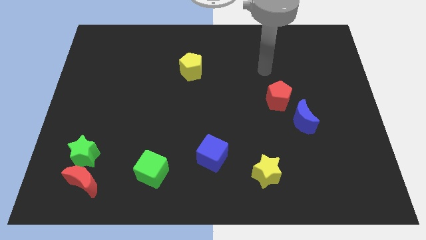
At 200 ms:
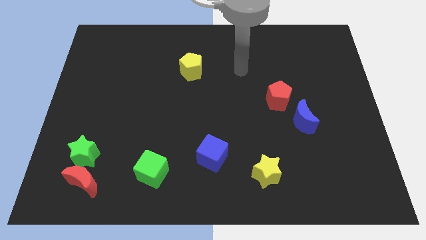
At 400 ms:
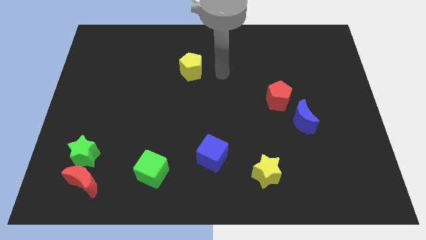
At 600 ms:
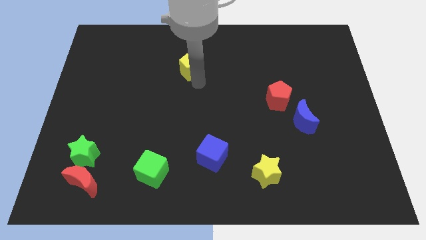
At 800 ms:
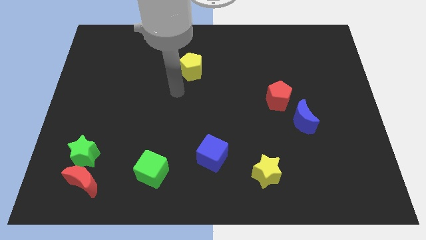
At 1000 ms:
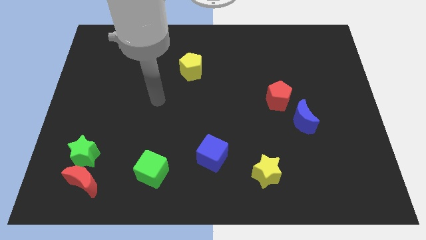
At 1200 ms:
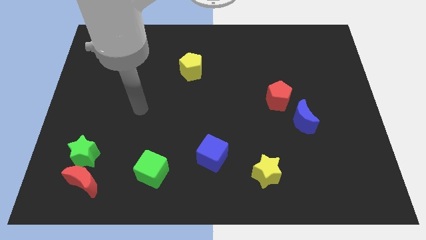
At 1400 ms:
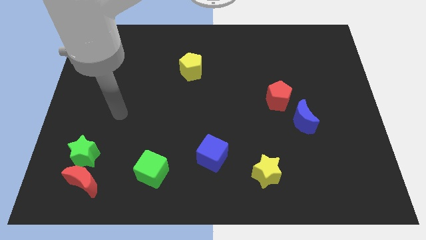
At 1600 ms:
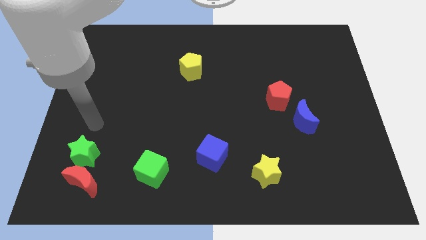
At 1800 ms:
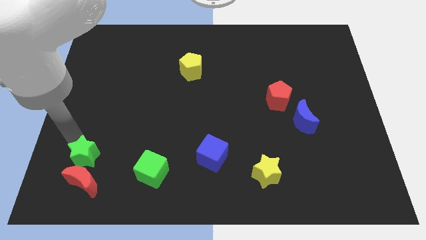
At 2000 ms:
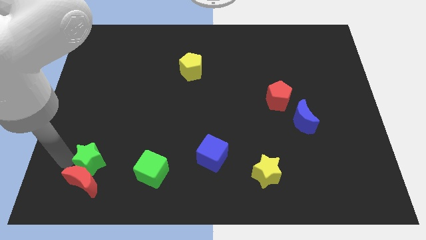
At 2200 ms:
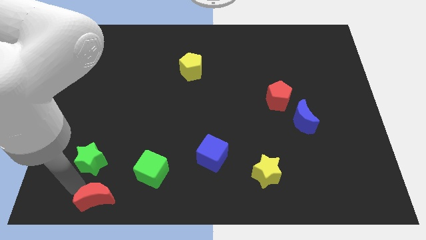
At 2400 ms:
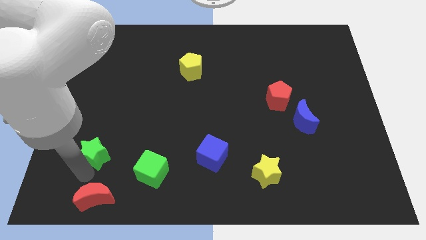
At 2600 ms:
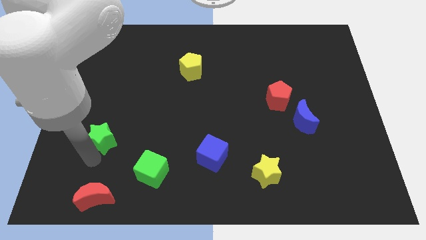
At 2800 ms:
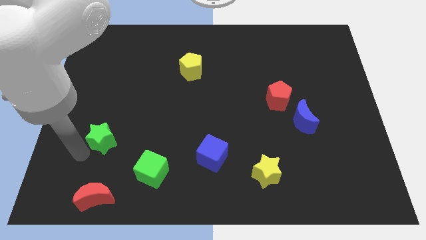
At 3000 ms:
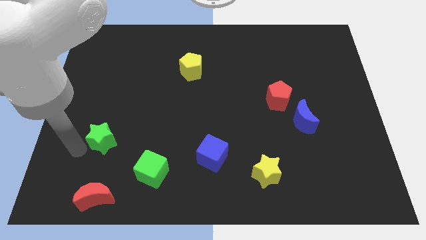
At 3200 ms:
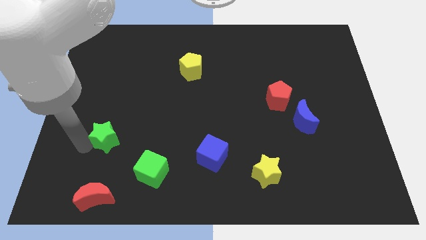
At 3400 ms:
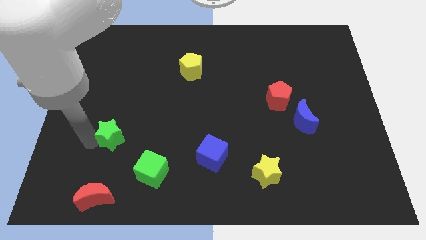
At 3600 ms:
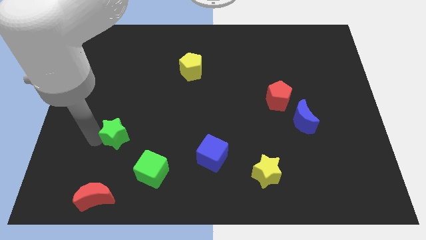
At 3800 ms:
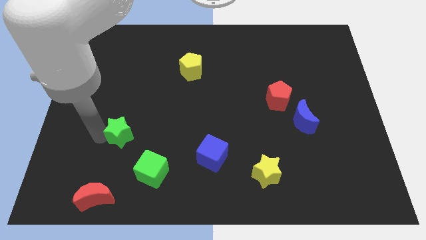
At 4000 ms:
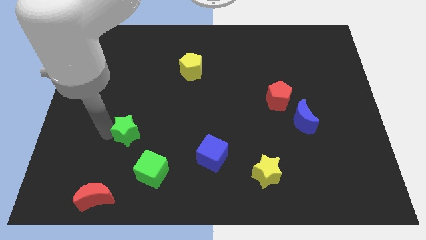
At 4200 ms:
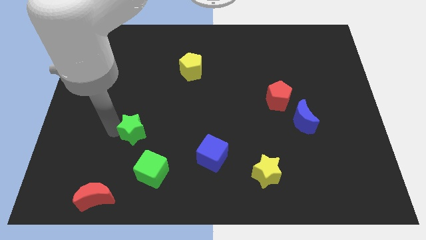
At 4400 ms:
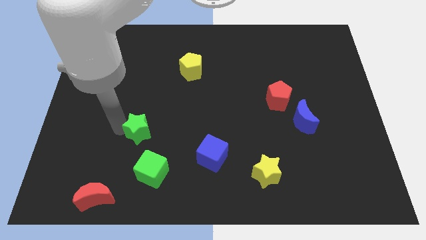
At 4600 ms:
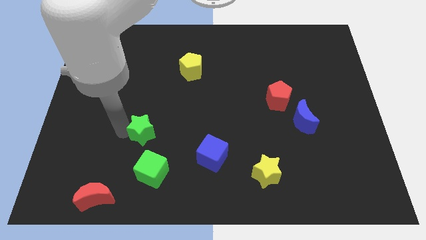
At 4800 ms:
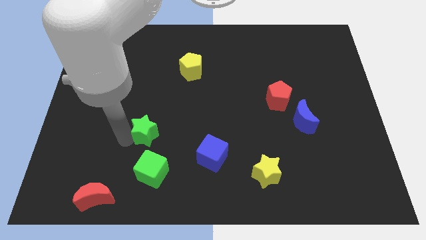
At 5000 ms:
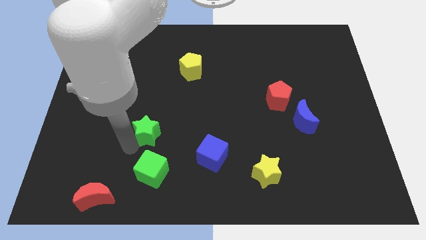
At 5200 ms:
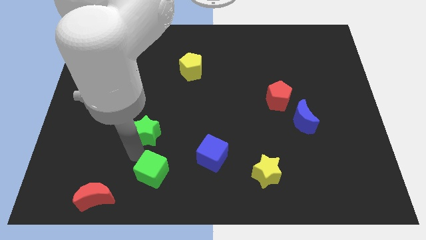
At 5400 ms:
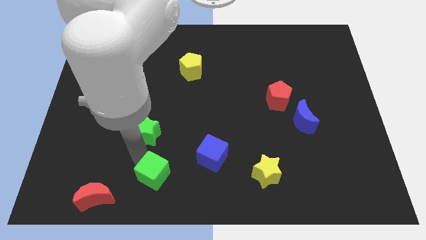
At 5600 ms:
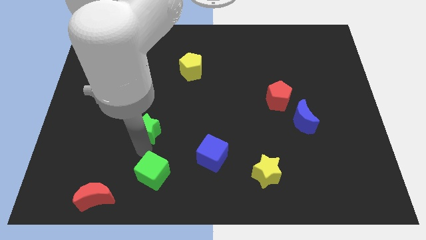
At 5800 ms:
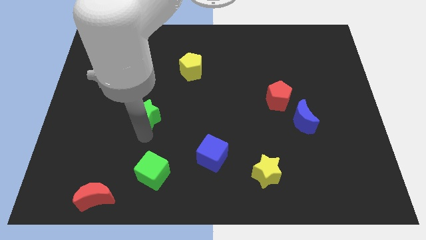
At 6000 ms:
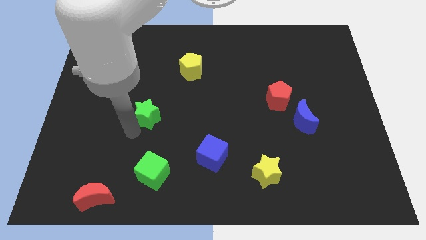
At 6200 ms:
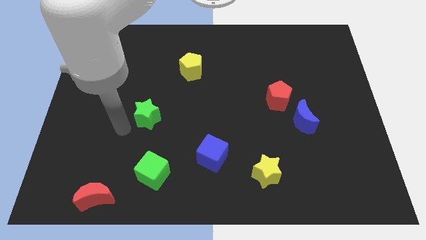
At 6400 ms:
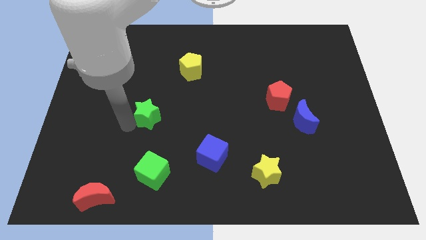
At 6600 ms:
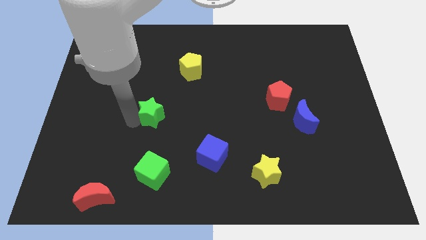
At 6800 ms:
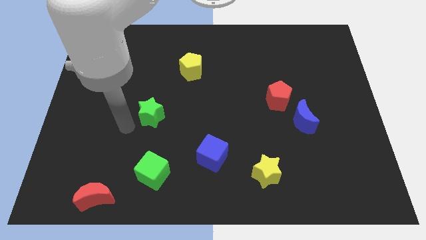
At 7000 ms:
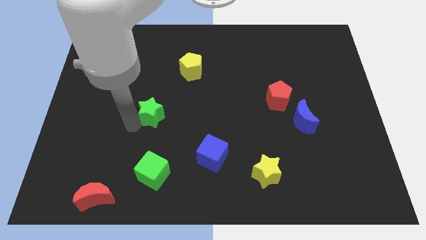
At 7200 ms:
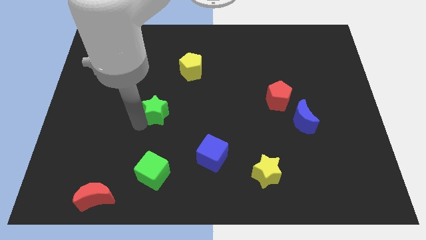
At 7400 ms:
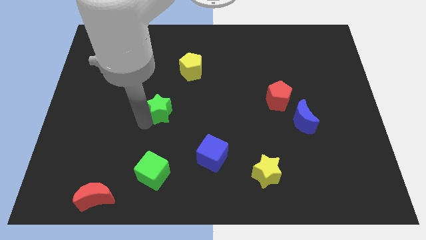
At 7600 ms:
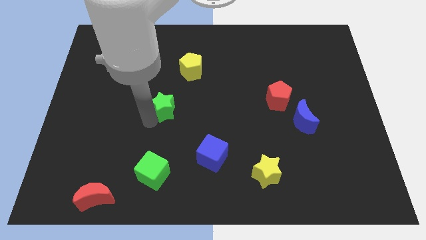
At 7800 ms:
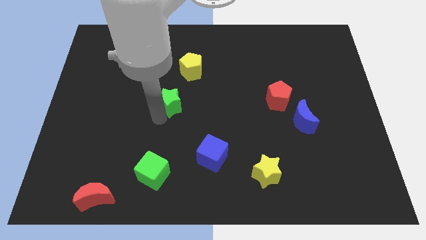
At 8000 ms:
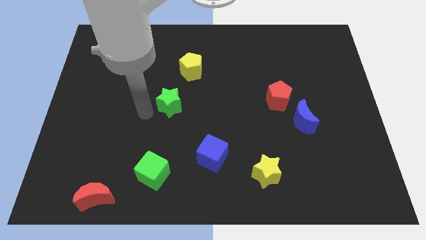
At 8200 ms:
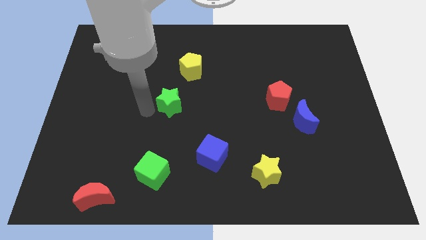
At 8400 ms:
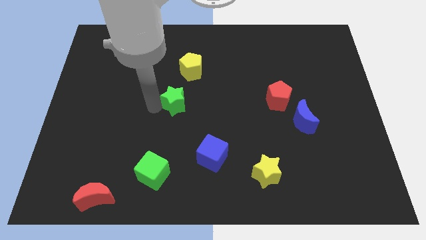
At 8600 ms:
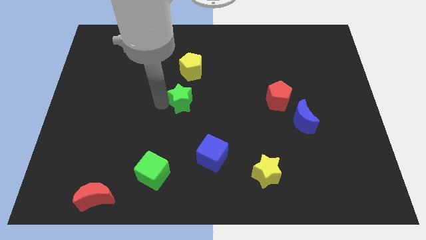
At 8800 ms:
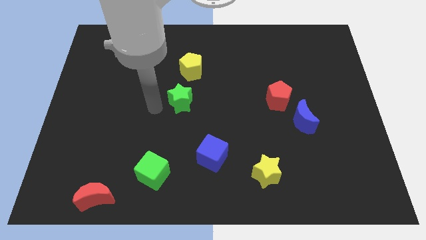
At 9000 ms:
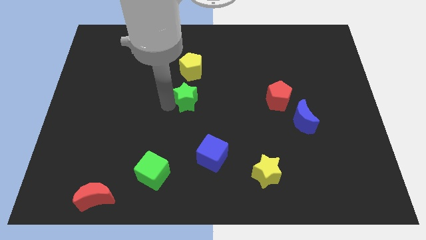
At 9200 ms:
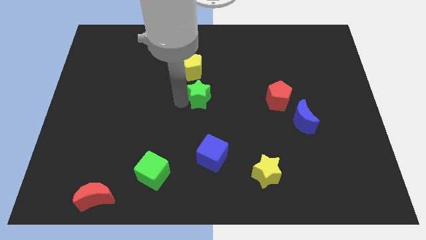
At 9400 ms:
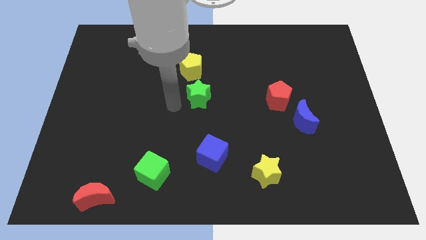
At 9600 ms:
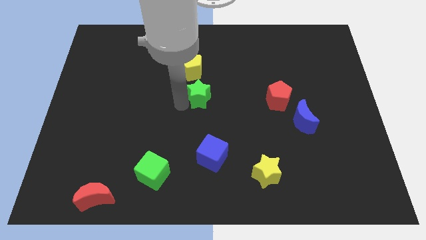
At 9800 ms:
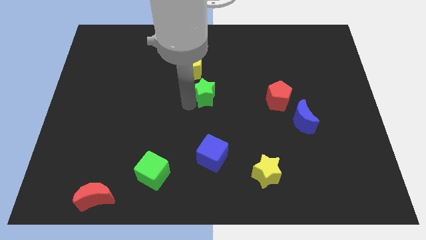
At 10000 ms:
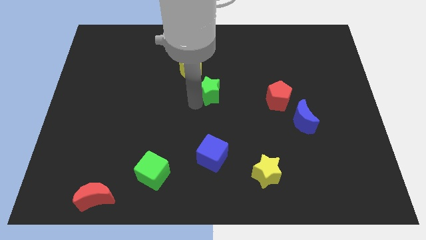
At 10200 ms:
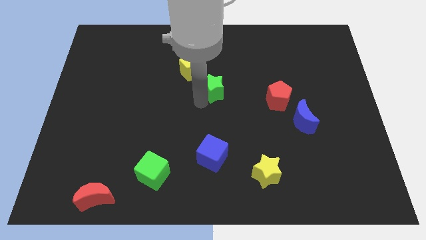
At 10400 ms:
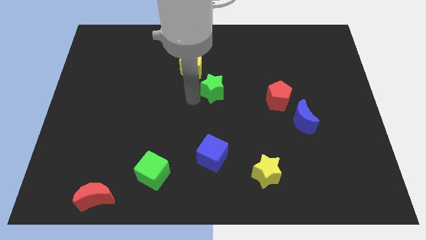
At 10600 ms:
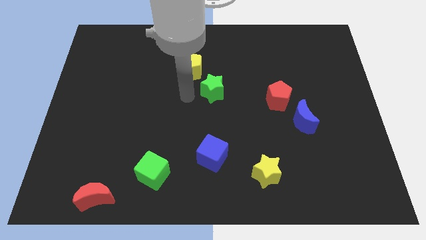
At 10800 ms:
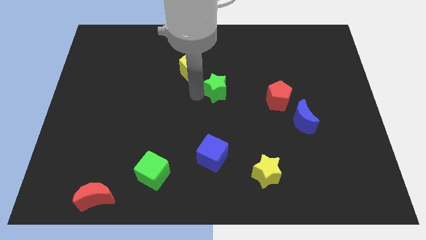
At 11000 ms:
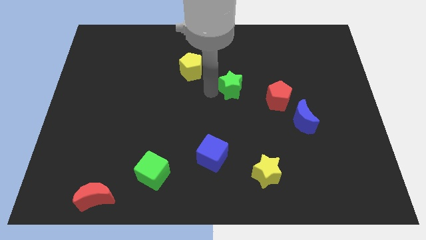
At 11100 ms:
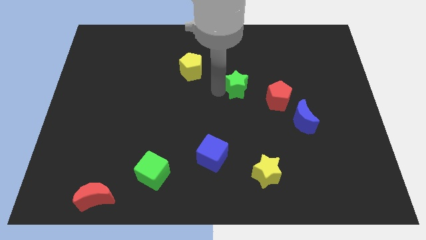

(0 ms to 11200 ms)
put the green star to the top left side of the red pentagon

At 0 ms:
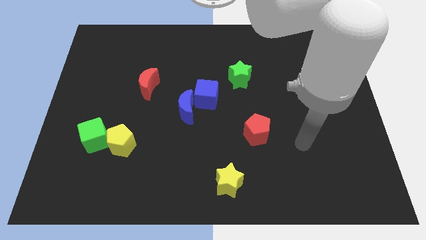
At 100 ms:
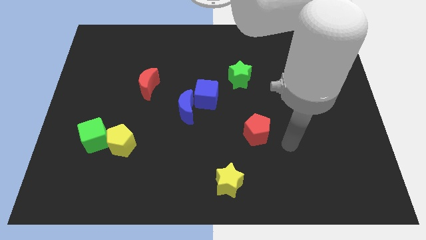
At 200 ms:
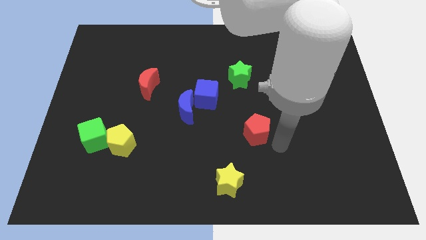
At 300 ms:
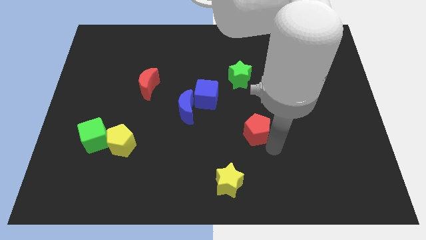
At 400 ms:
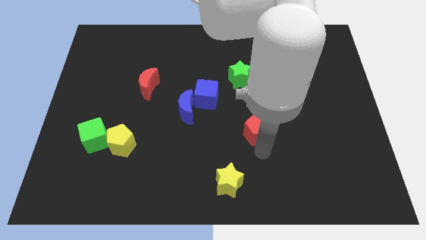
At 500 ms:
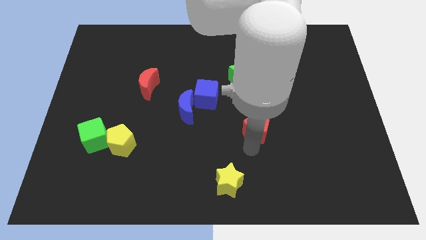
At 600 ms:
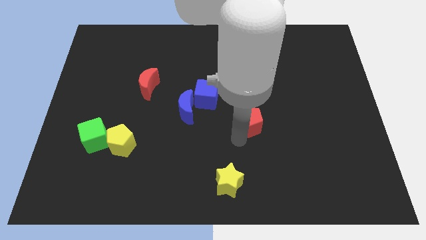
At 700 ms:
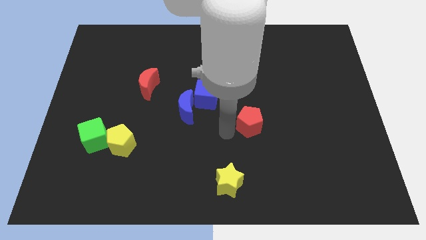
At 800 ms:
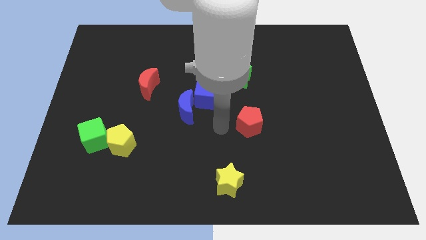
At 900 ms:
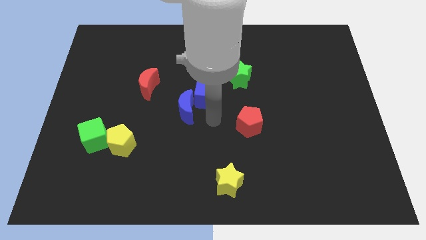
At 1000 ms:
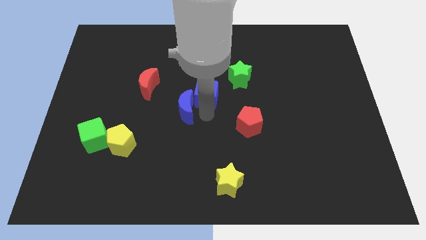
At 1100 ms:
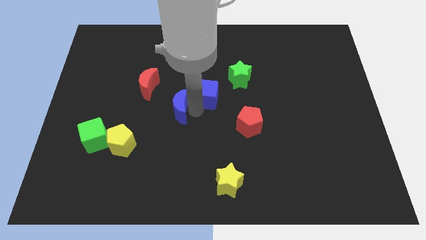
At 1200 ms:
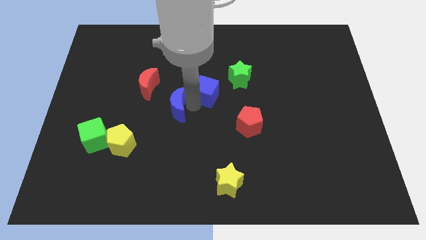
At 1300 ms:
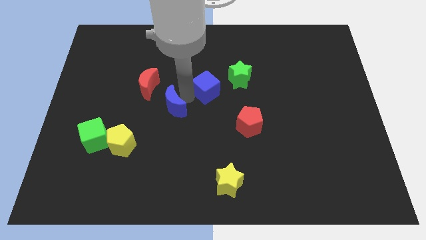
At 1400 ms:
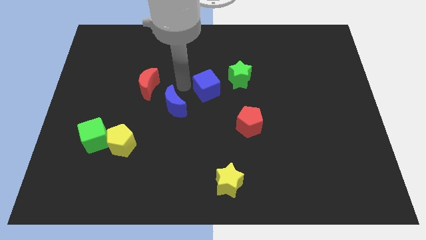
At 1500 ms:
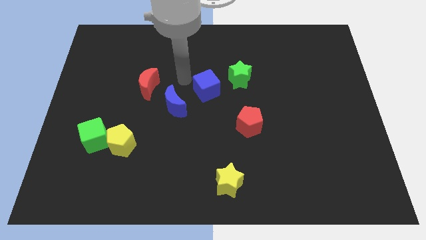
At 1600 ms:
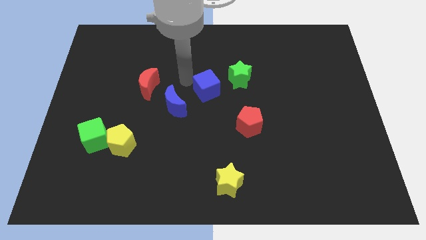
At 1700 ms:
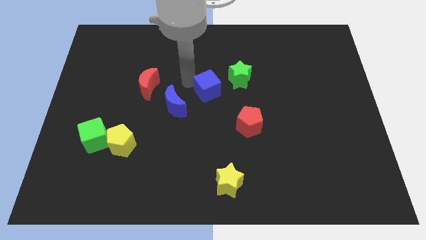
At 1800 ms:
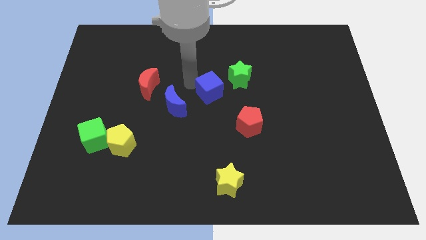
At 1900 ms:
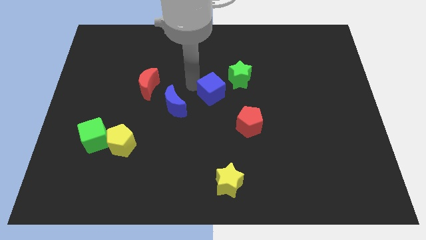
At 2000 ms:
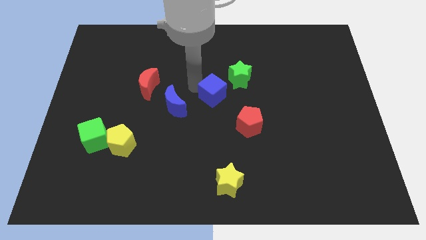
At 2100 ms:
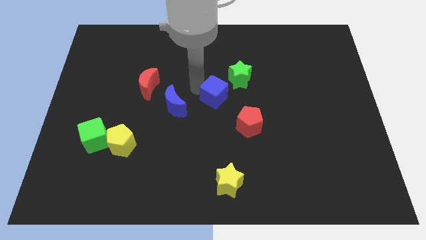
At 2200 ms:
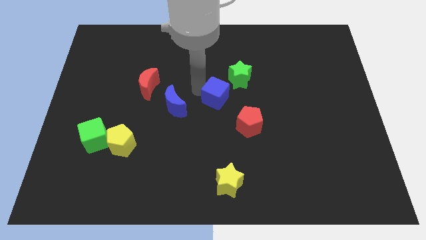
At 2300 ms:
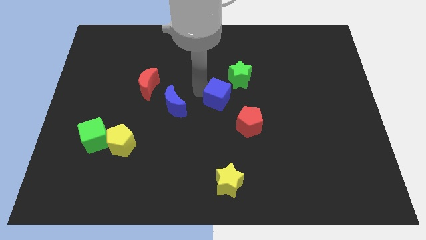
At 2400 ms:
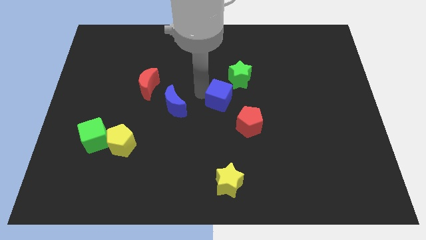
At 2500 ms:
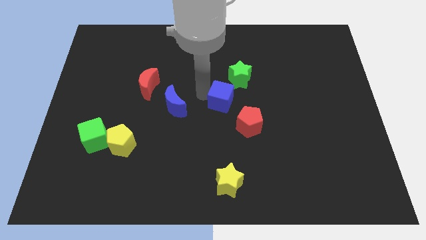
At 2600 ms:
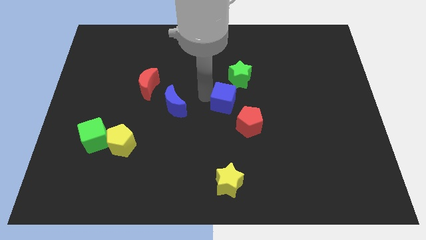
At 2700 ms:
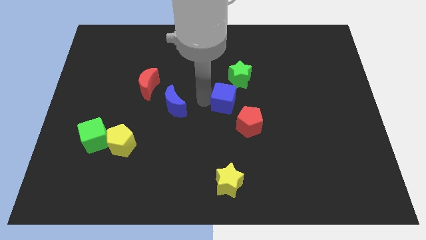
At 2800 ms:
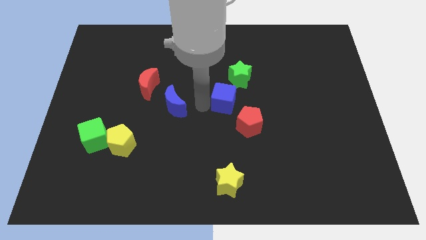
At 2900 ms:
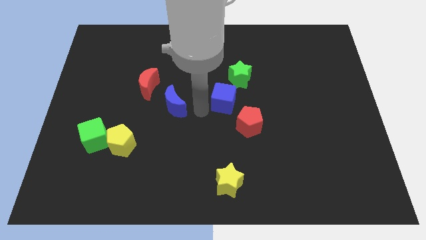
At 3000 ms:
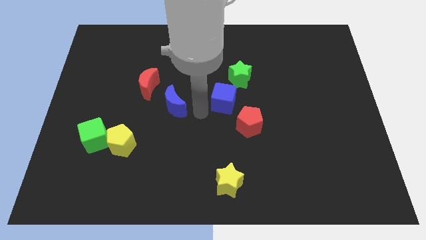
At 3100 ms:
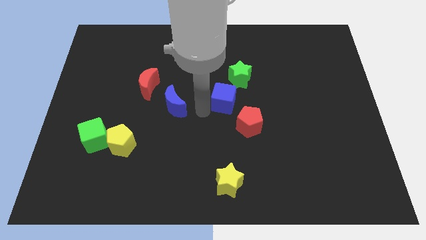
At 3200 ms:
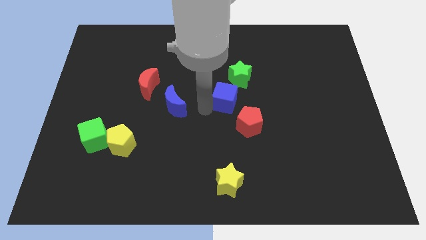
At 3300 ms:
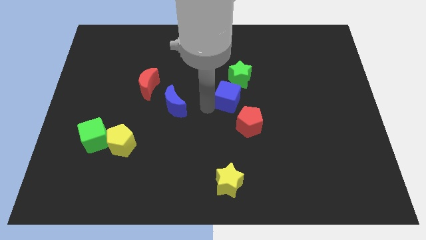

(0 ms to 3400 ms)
move the blue cube above the red pentagon
